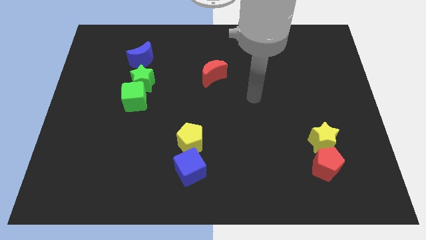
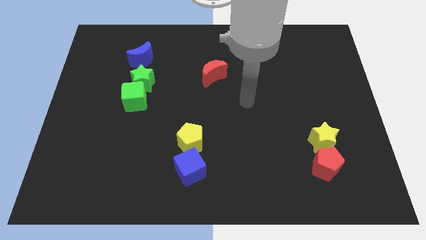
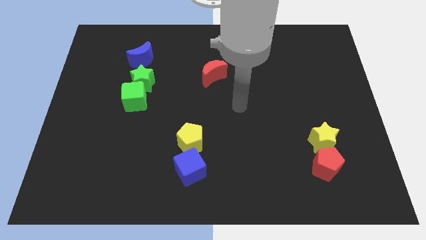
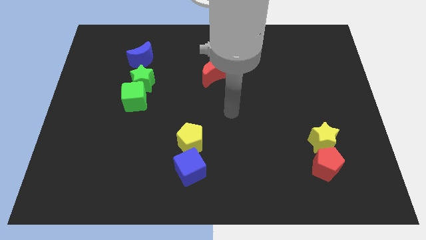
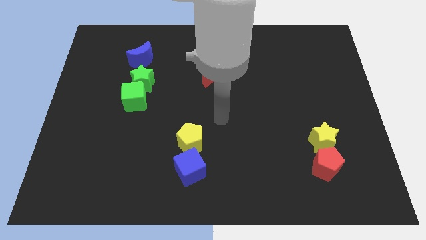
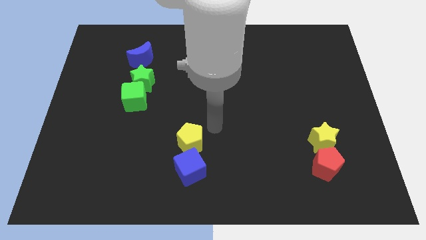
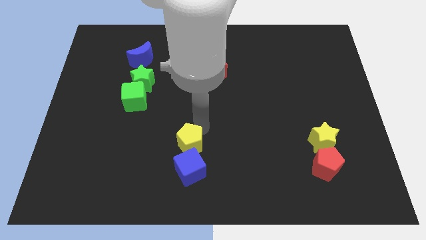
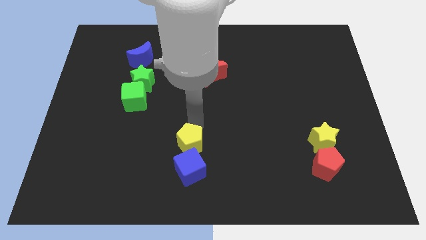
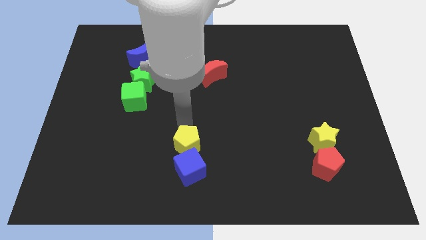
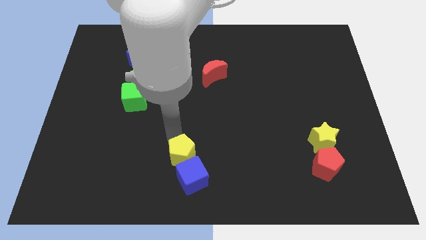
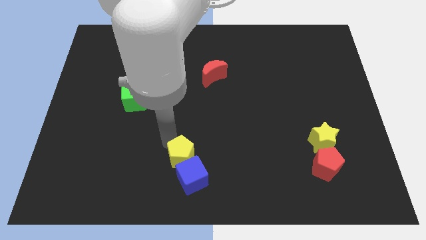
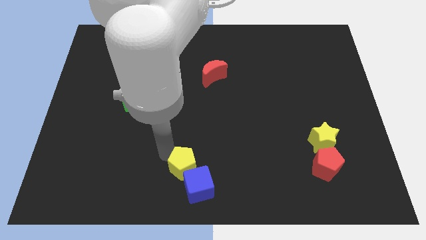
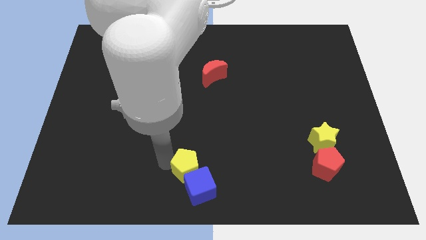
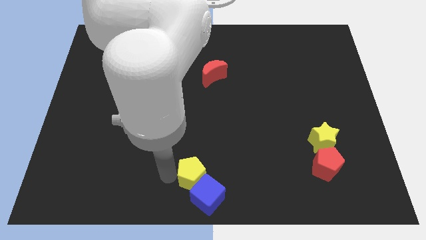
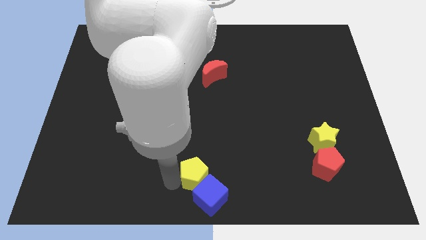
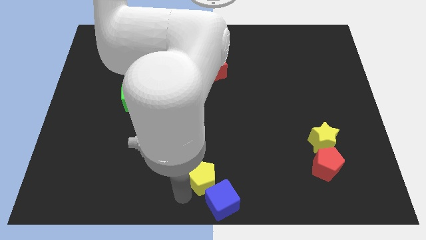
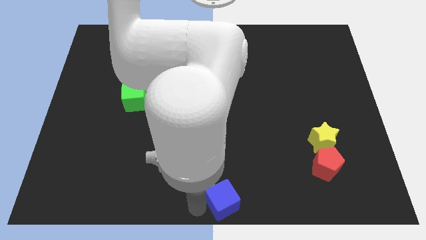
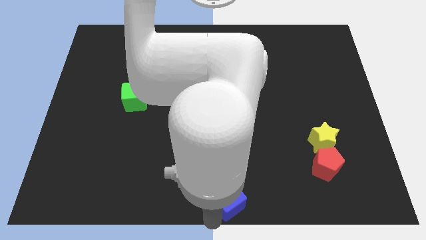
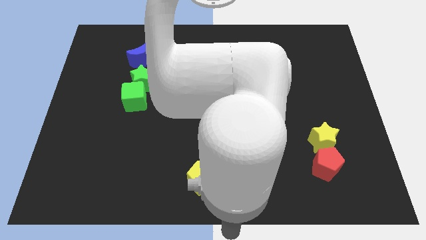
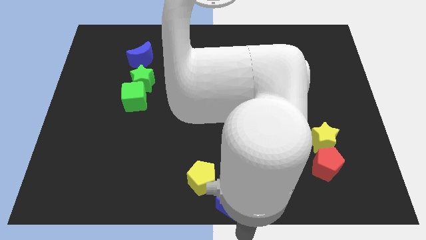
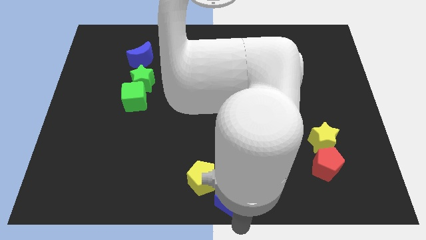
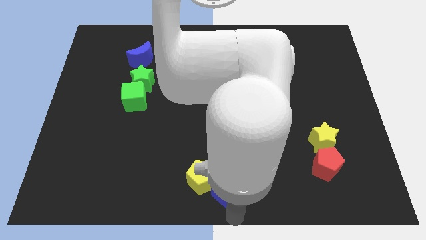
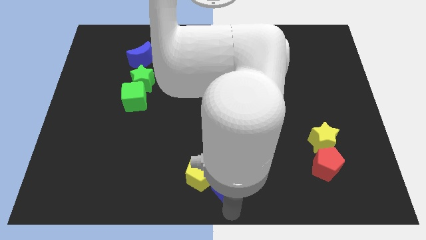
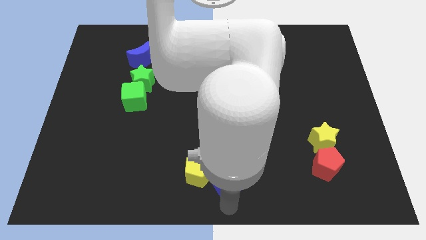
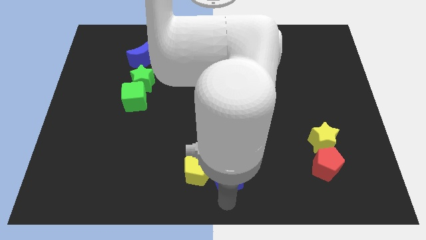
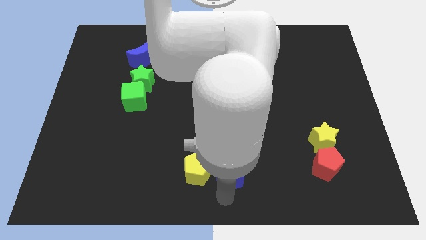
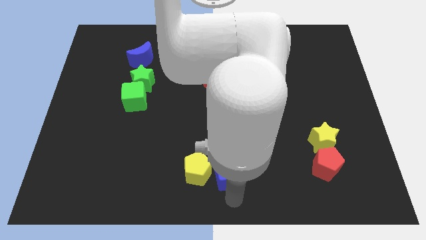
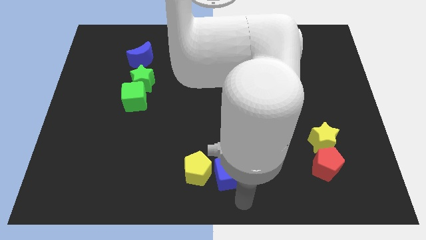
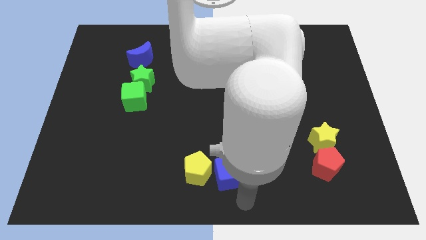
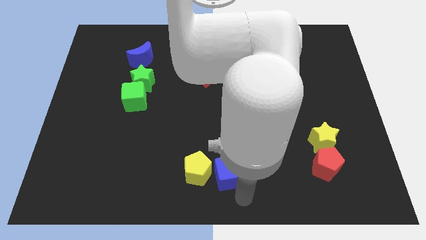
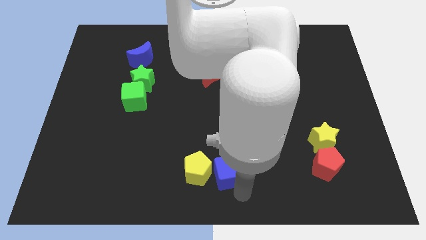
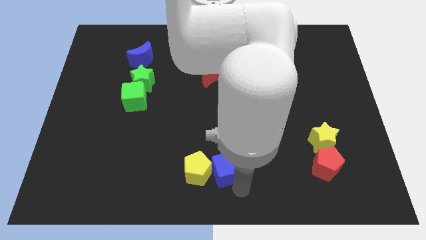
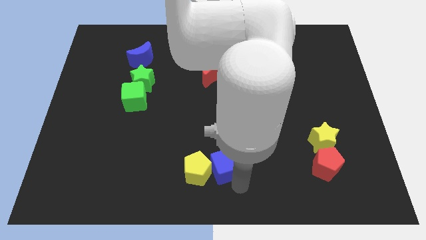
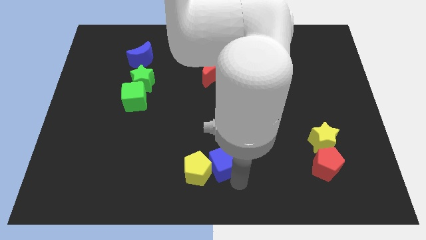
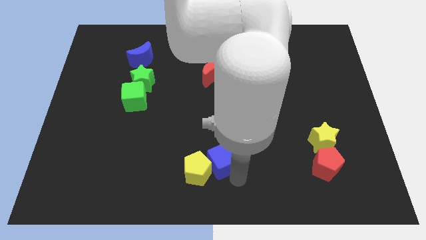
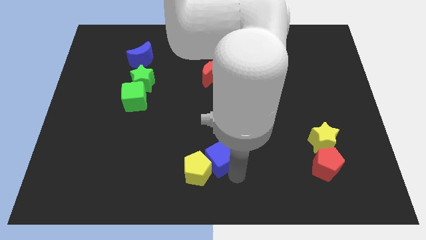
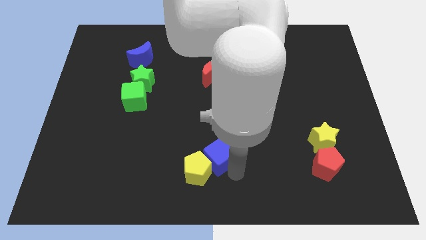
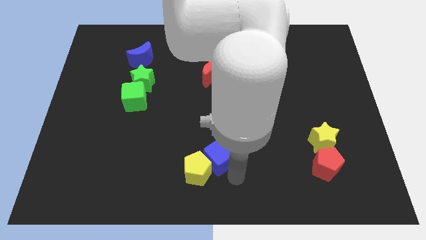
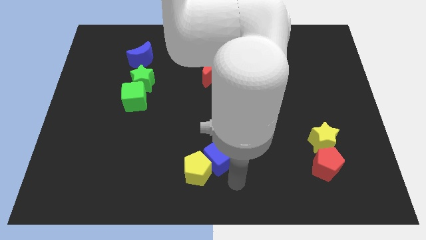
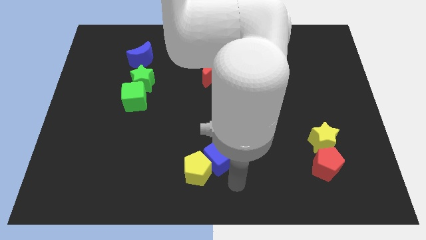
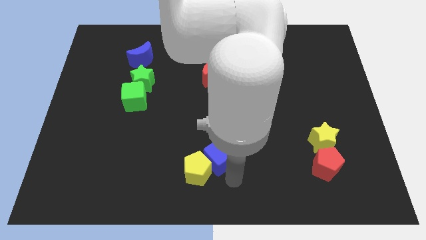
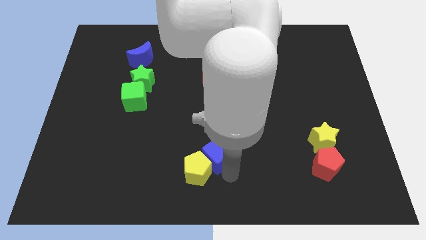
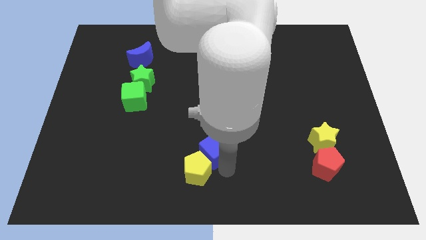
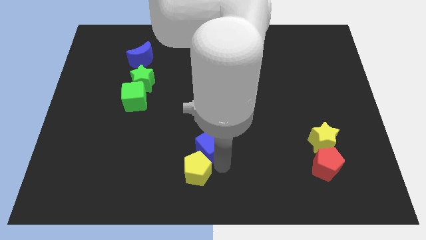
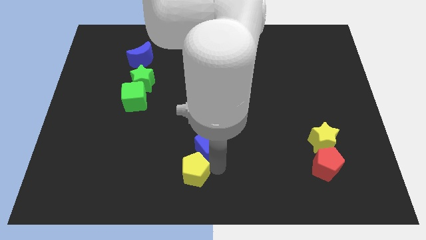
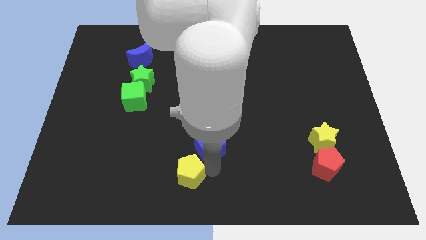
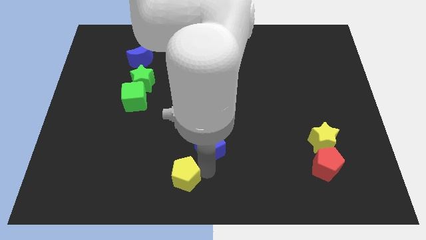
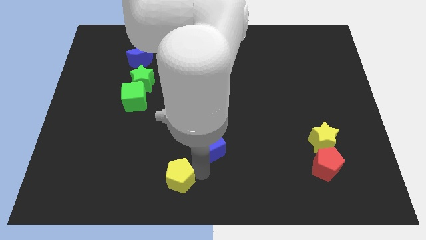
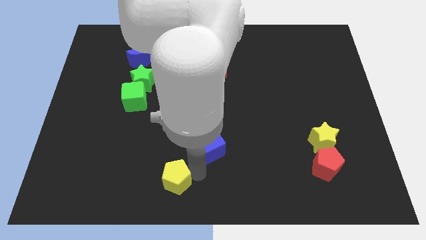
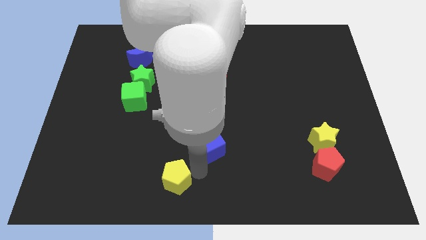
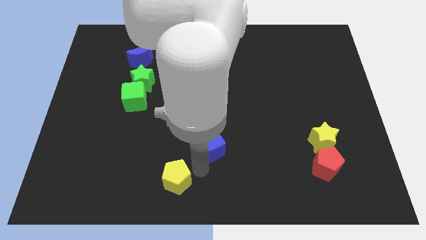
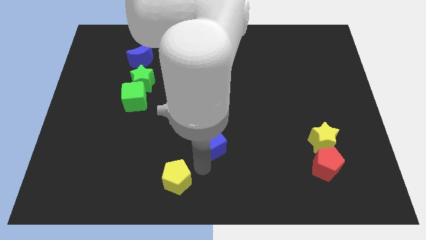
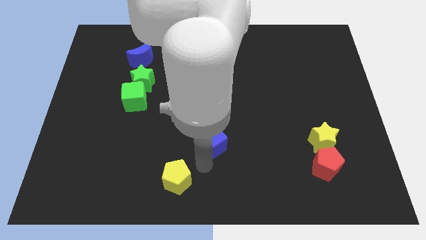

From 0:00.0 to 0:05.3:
push the blue cube to the center of the board
